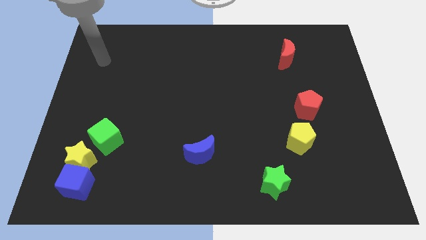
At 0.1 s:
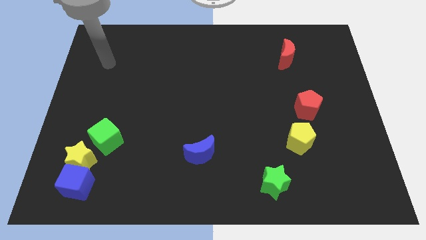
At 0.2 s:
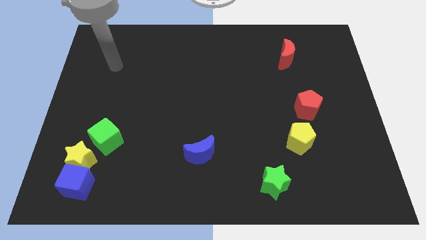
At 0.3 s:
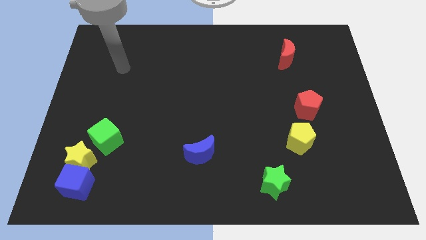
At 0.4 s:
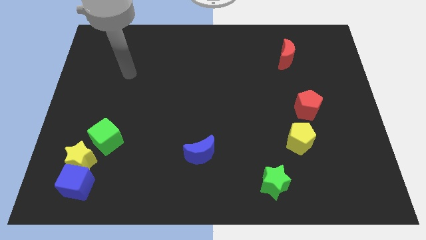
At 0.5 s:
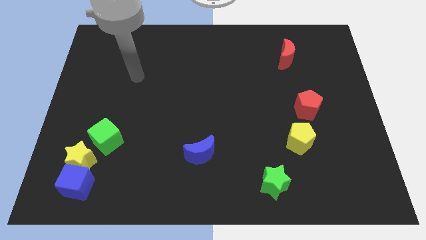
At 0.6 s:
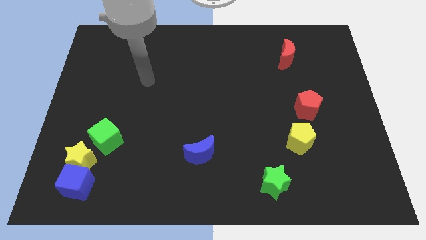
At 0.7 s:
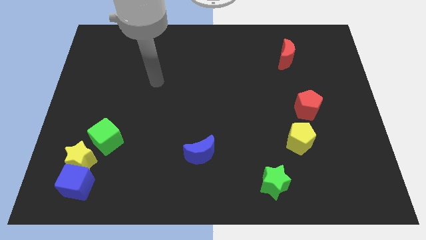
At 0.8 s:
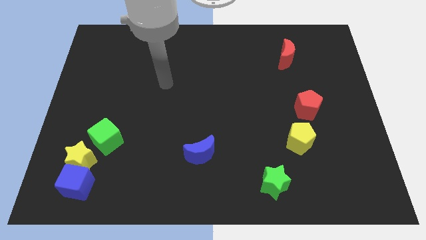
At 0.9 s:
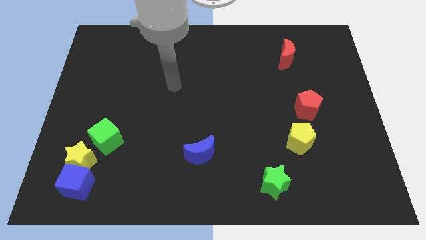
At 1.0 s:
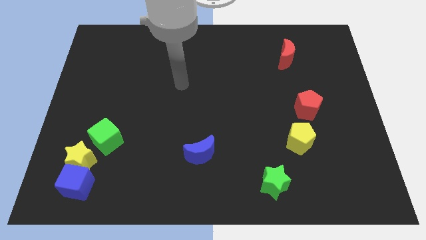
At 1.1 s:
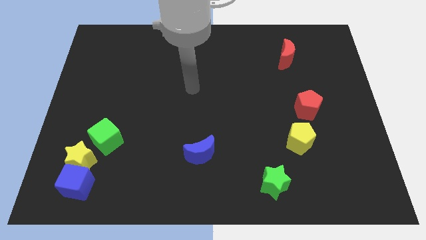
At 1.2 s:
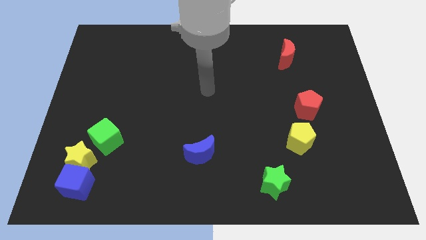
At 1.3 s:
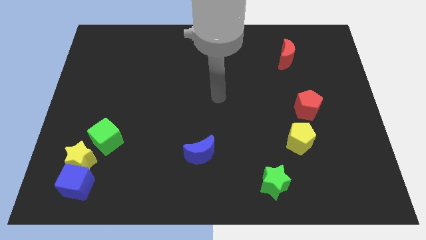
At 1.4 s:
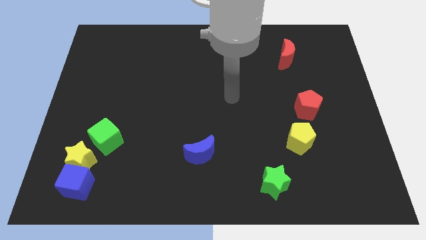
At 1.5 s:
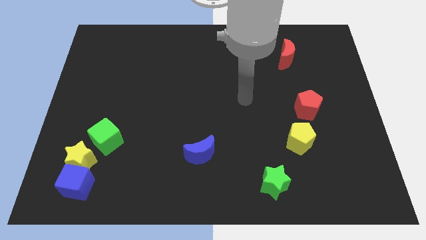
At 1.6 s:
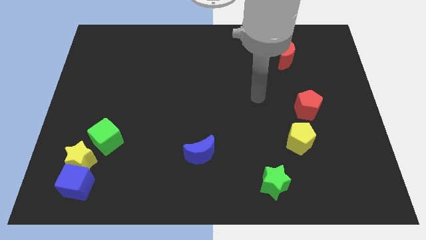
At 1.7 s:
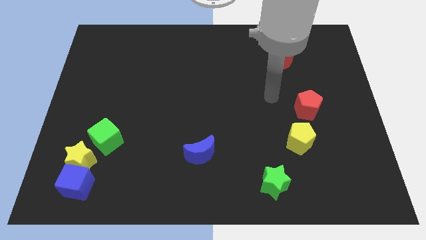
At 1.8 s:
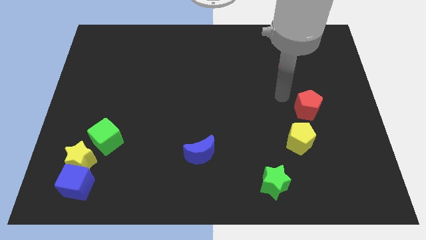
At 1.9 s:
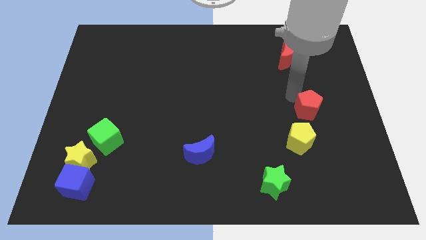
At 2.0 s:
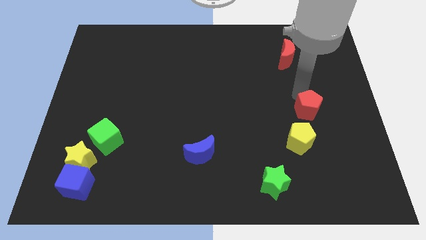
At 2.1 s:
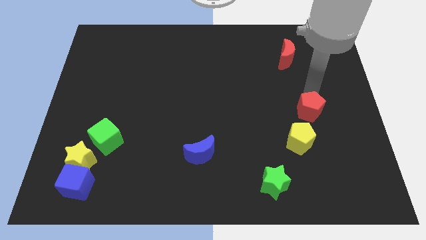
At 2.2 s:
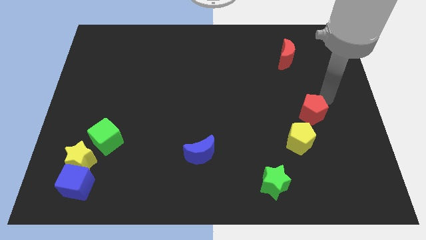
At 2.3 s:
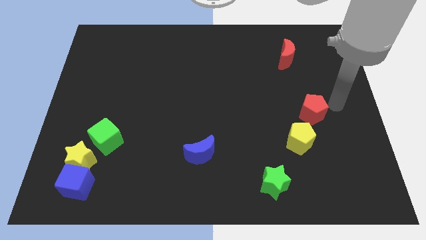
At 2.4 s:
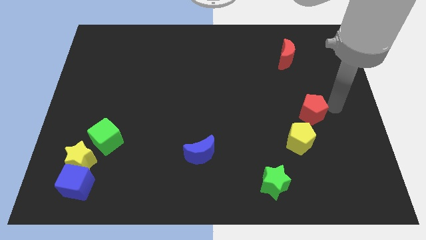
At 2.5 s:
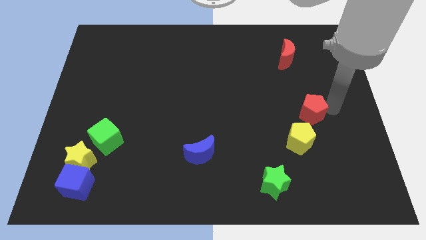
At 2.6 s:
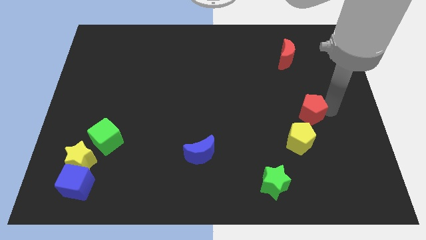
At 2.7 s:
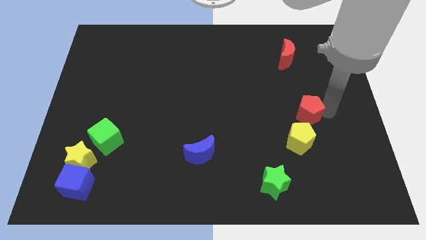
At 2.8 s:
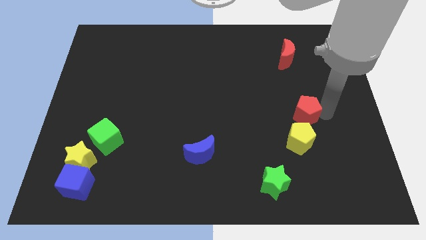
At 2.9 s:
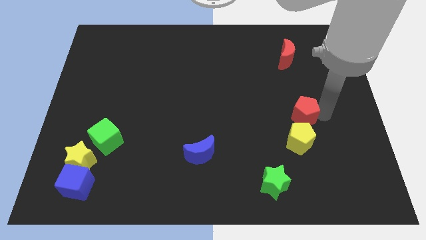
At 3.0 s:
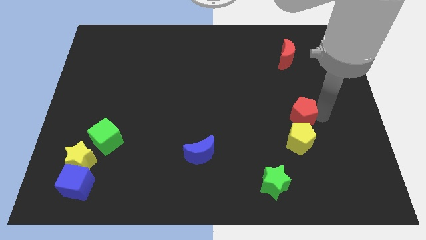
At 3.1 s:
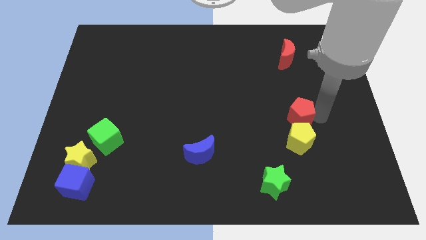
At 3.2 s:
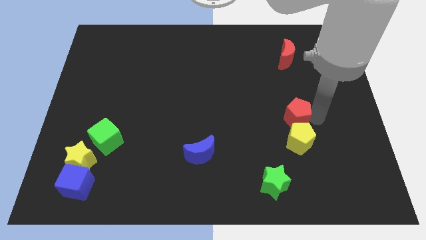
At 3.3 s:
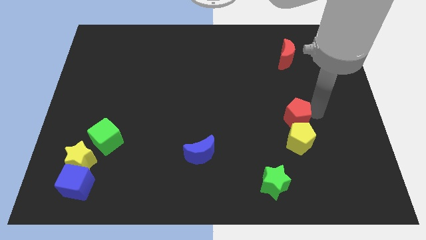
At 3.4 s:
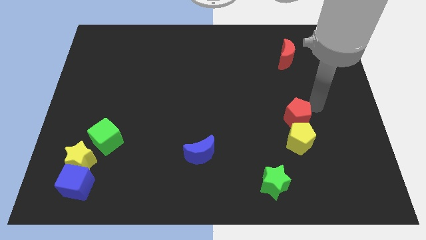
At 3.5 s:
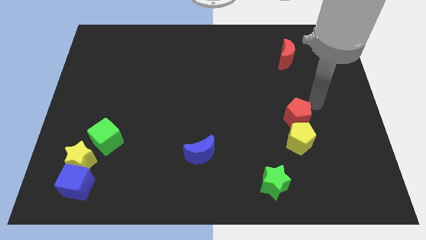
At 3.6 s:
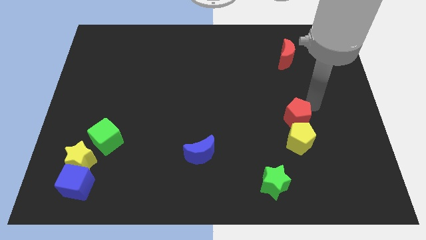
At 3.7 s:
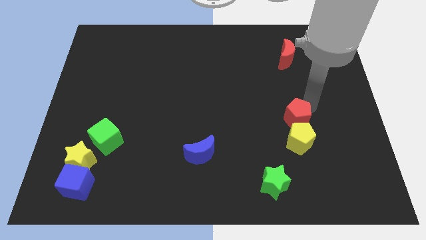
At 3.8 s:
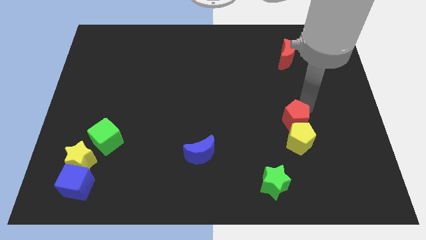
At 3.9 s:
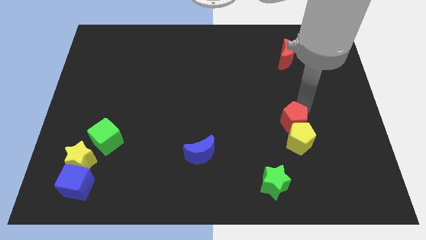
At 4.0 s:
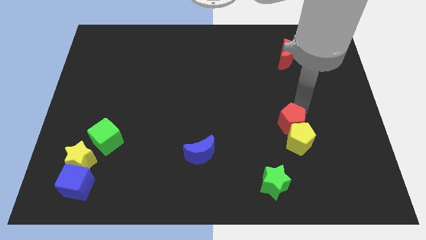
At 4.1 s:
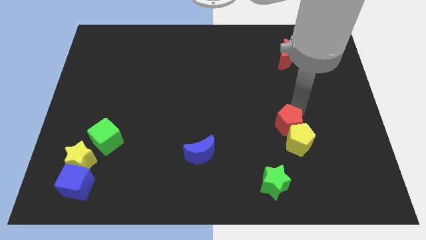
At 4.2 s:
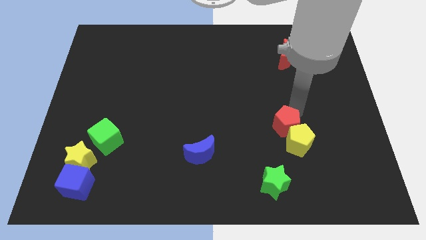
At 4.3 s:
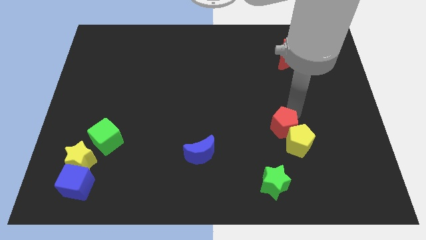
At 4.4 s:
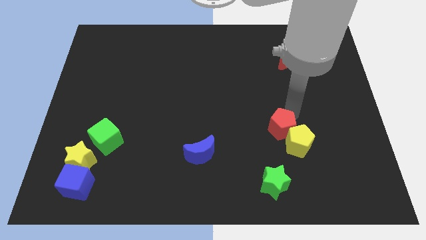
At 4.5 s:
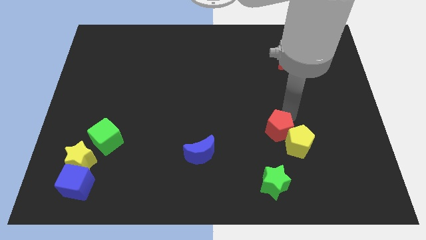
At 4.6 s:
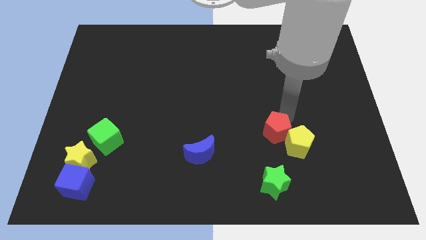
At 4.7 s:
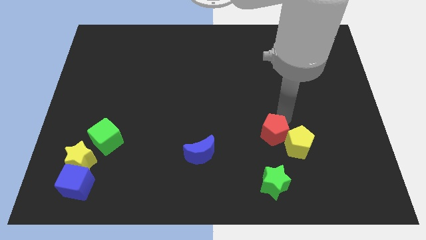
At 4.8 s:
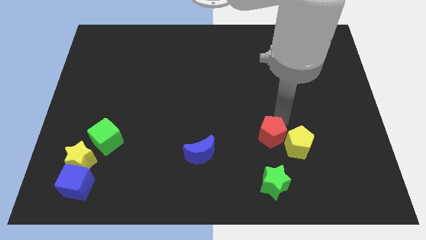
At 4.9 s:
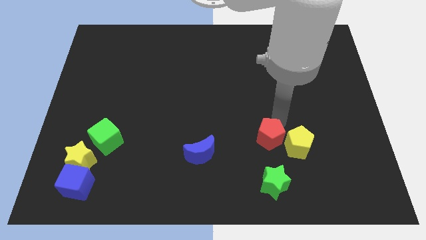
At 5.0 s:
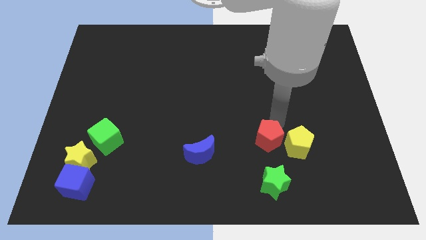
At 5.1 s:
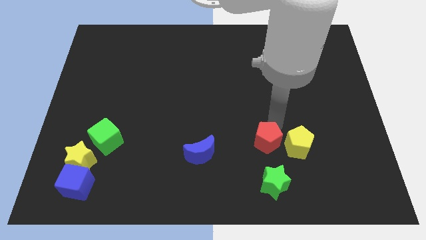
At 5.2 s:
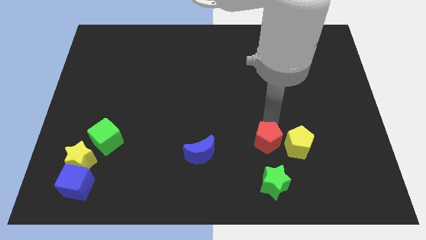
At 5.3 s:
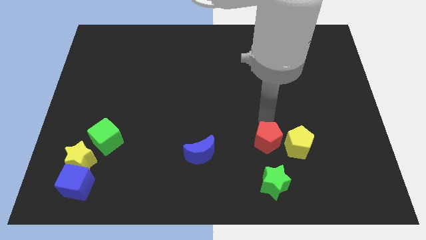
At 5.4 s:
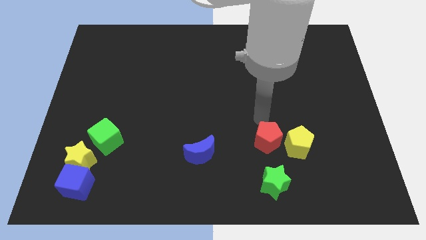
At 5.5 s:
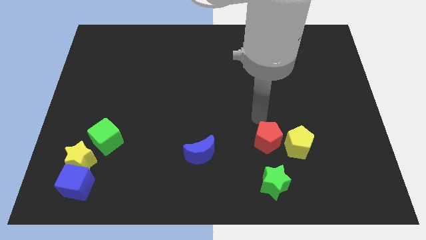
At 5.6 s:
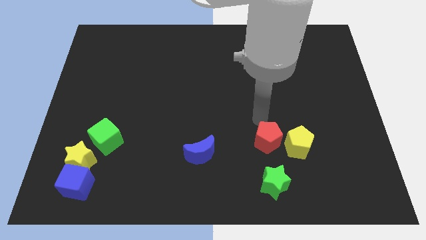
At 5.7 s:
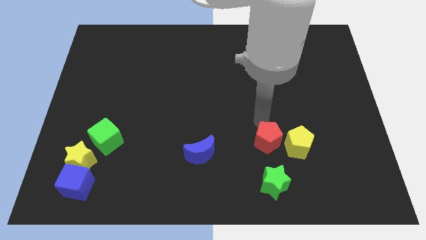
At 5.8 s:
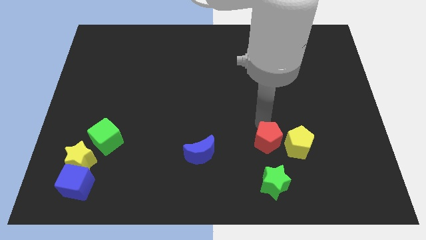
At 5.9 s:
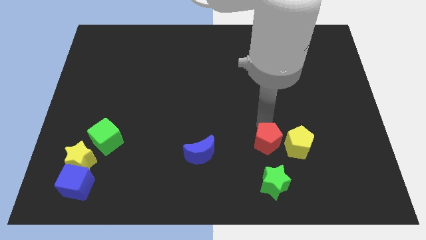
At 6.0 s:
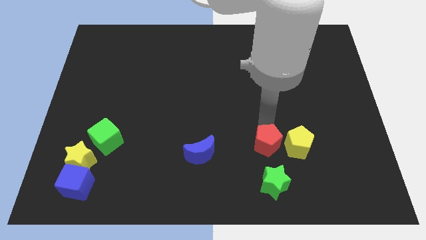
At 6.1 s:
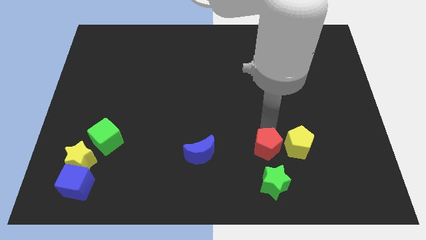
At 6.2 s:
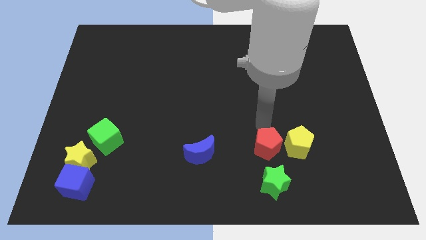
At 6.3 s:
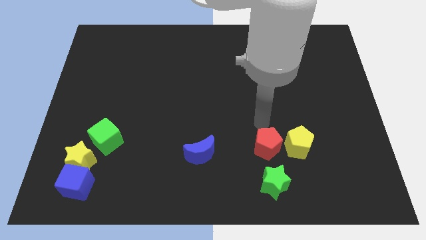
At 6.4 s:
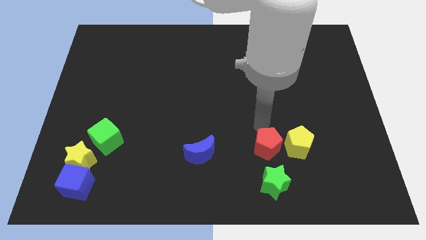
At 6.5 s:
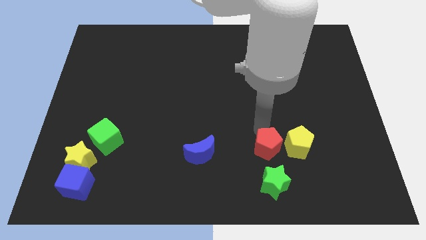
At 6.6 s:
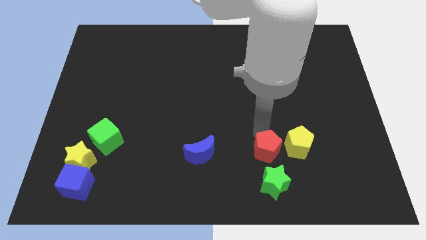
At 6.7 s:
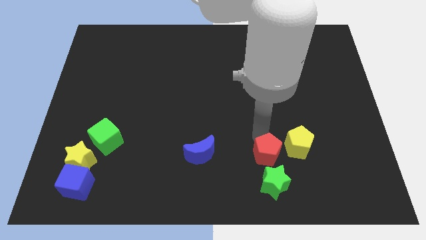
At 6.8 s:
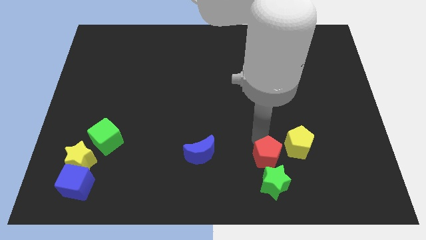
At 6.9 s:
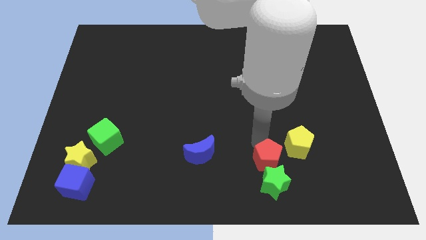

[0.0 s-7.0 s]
move the red pentagon close to the green star

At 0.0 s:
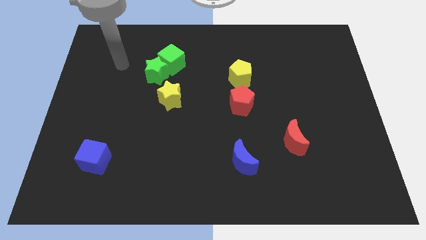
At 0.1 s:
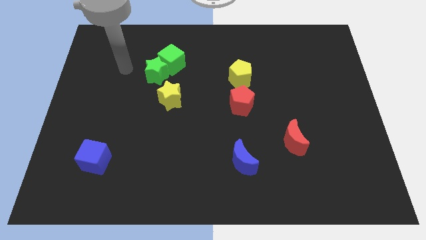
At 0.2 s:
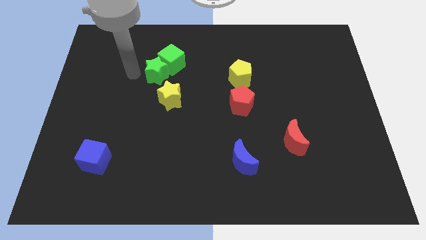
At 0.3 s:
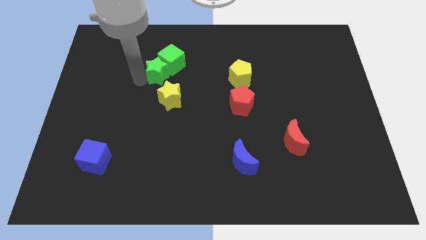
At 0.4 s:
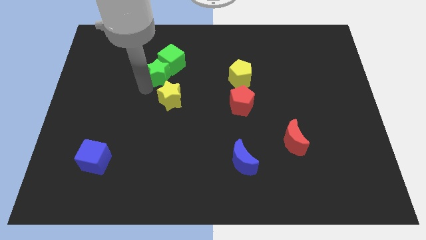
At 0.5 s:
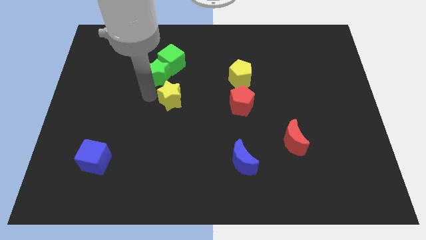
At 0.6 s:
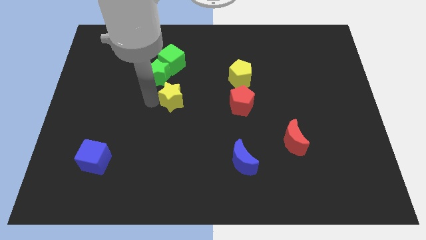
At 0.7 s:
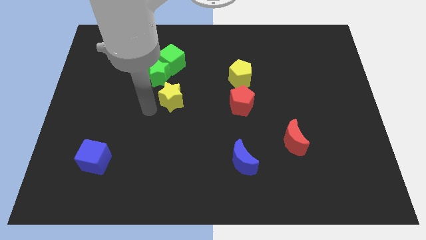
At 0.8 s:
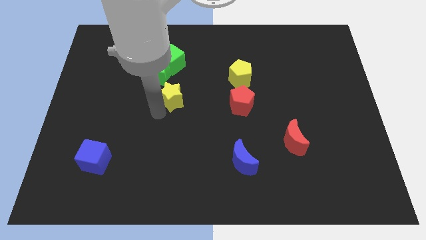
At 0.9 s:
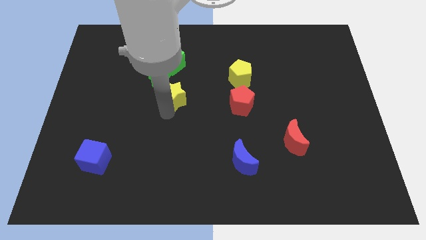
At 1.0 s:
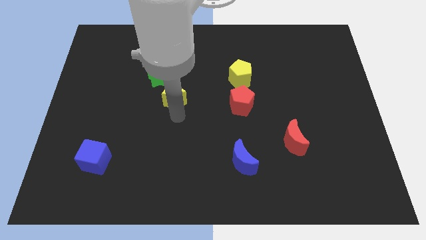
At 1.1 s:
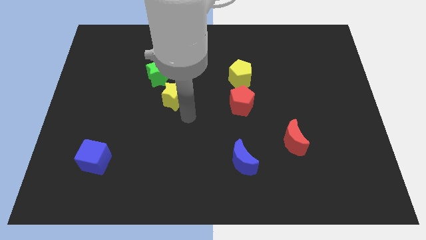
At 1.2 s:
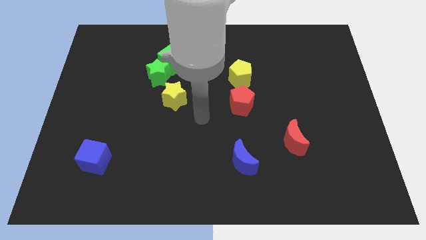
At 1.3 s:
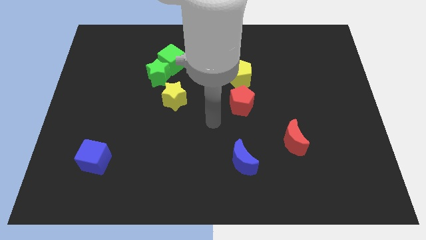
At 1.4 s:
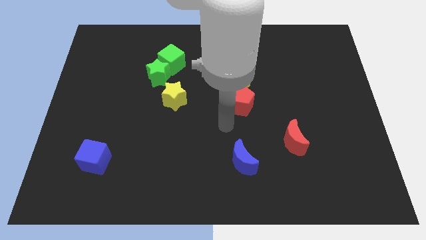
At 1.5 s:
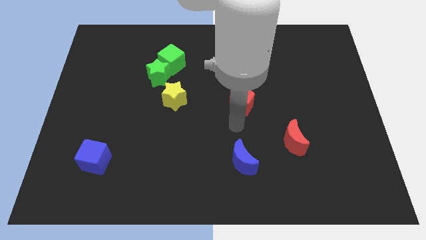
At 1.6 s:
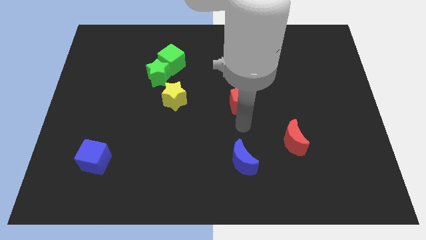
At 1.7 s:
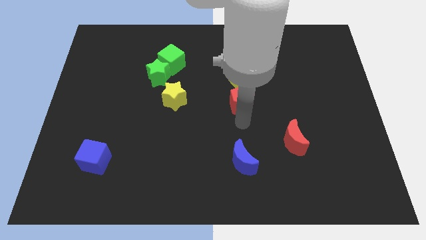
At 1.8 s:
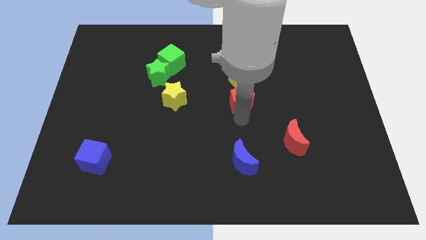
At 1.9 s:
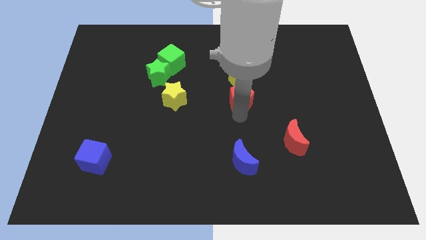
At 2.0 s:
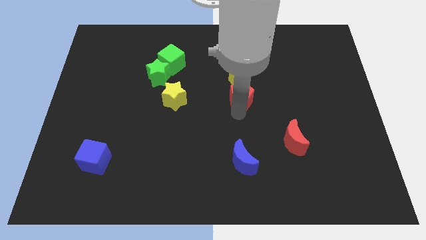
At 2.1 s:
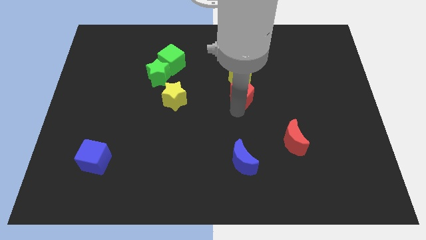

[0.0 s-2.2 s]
slide the red pentagon close to the yellow pentagon
